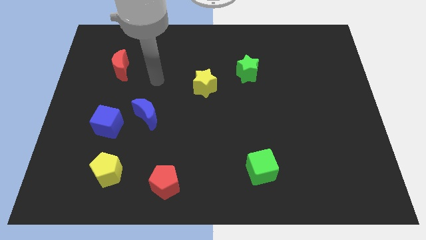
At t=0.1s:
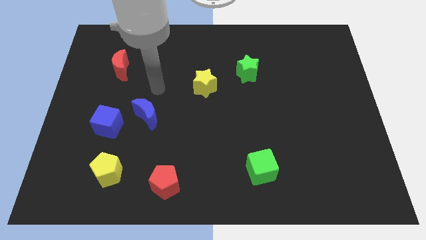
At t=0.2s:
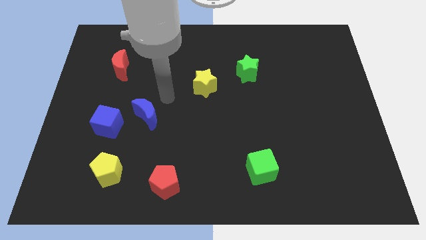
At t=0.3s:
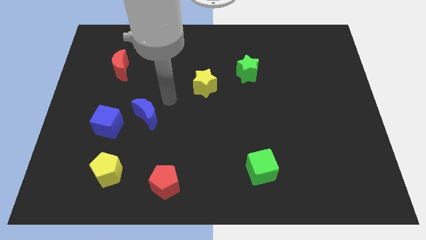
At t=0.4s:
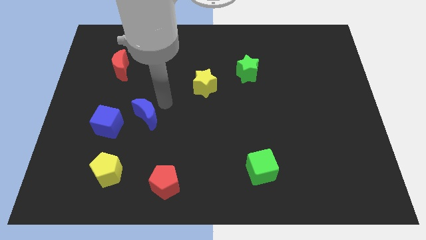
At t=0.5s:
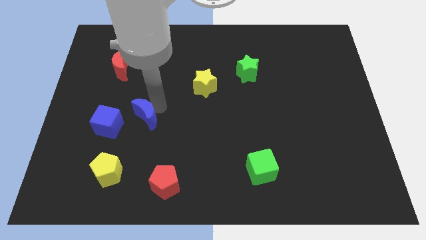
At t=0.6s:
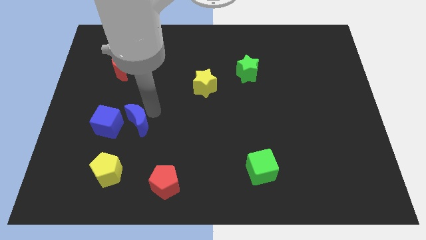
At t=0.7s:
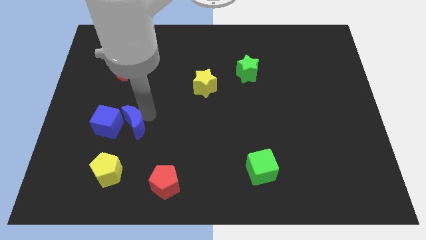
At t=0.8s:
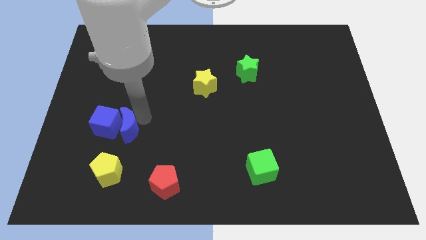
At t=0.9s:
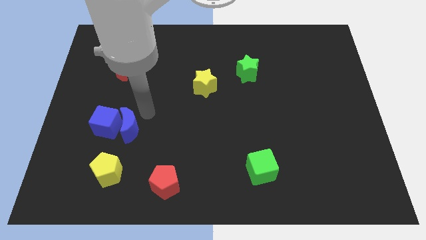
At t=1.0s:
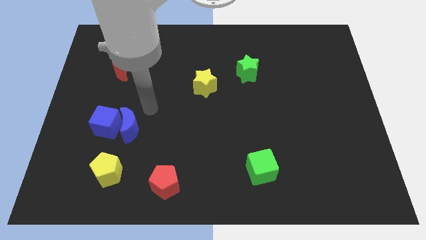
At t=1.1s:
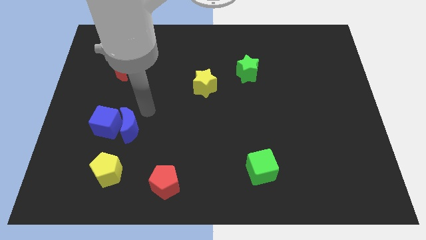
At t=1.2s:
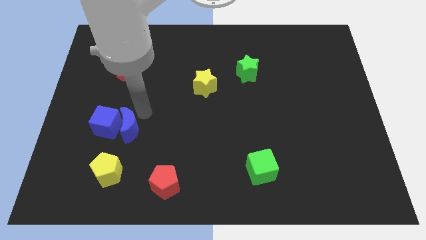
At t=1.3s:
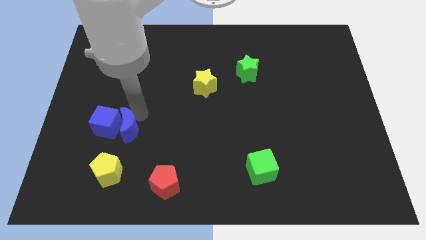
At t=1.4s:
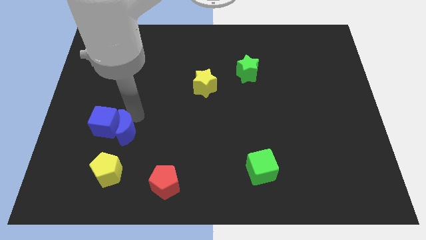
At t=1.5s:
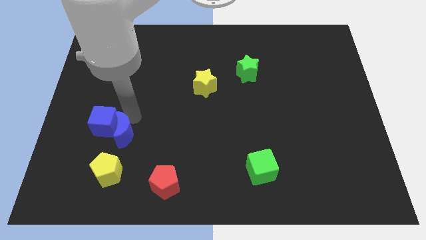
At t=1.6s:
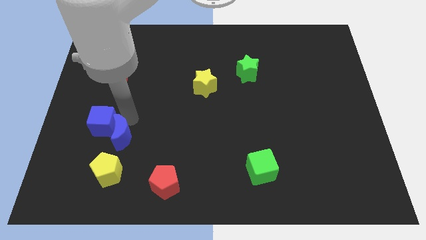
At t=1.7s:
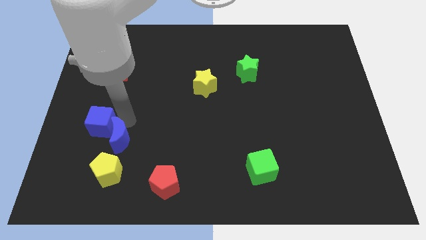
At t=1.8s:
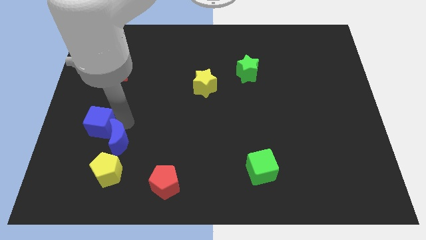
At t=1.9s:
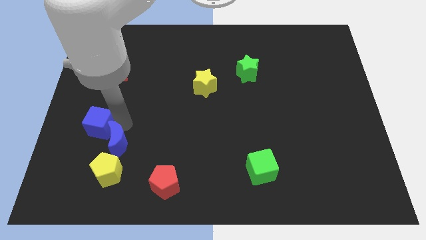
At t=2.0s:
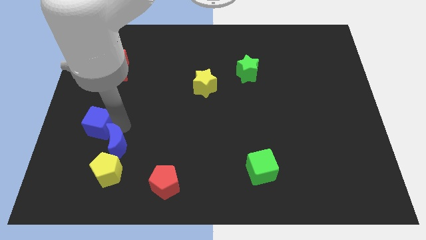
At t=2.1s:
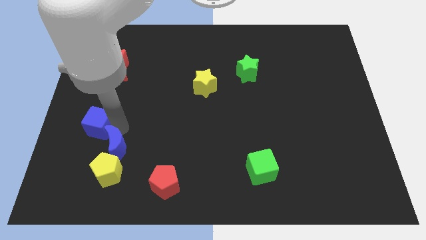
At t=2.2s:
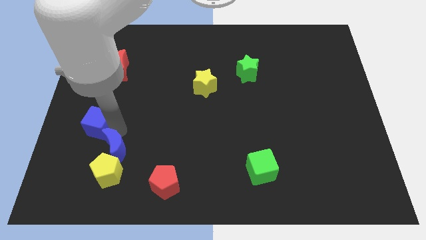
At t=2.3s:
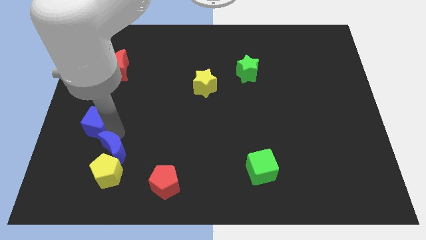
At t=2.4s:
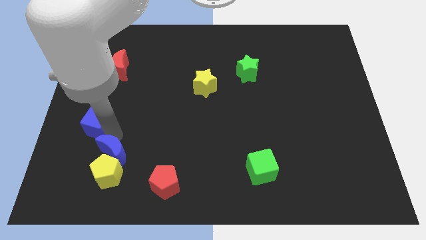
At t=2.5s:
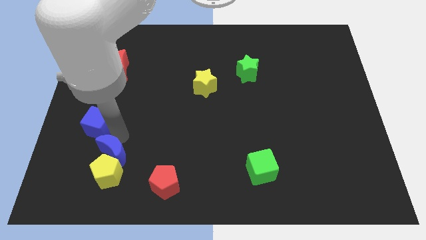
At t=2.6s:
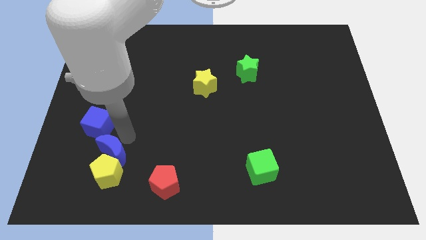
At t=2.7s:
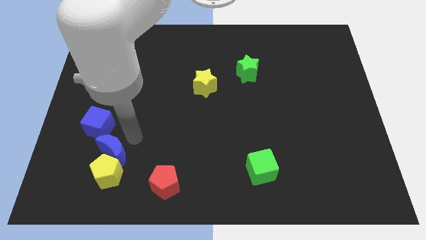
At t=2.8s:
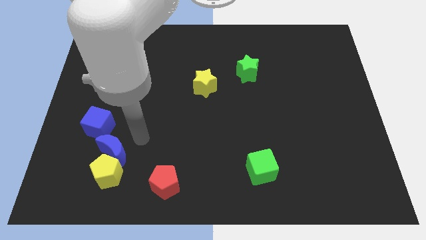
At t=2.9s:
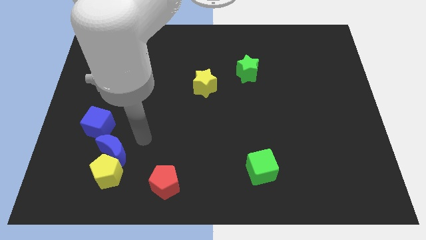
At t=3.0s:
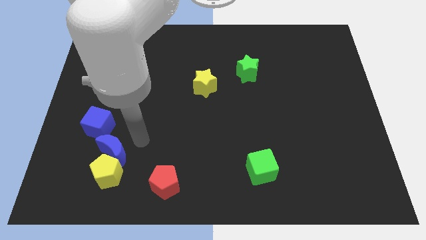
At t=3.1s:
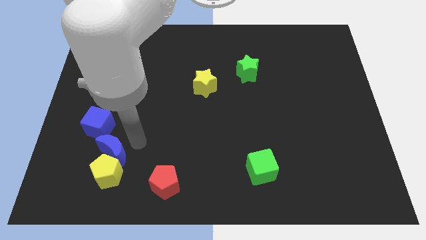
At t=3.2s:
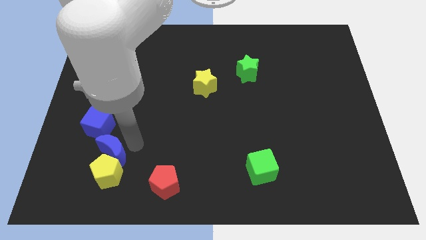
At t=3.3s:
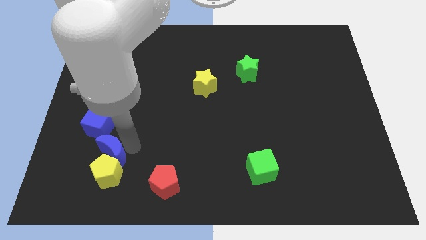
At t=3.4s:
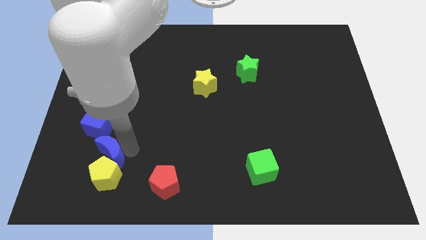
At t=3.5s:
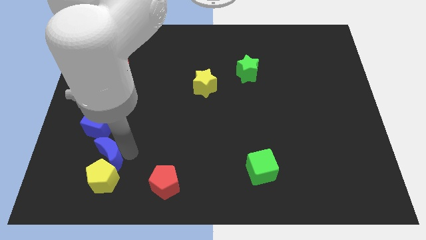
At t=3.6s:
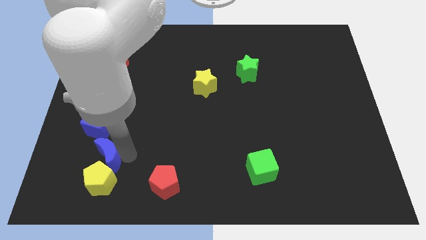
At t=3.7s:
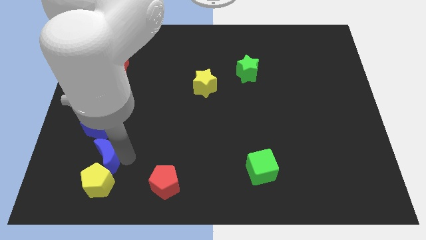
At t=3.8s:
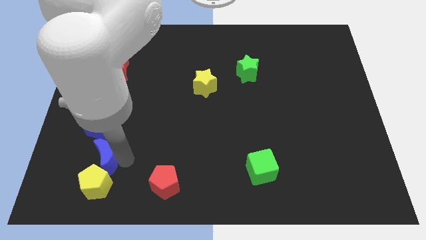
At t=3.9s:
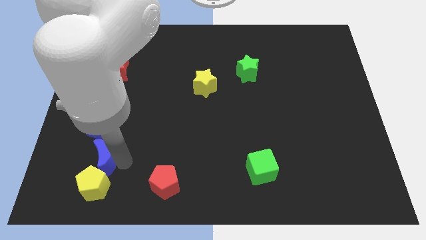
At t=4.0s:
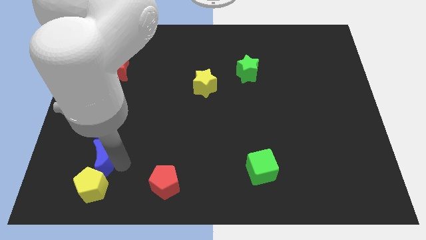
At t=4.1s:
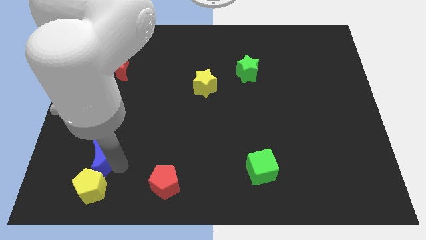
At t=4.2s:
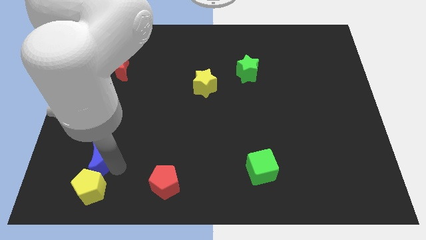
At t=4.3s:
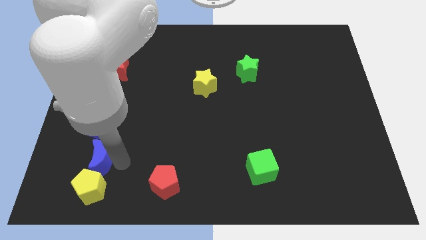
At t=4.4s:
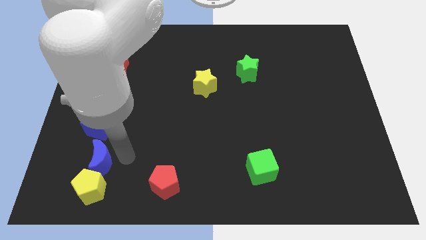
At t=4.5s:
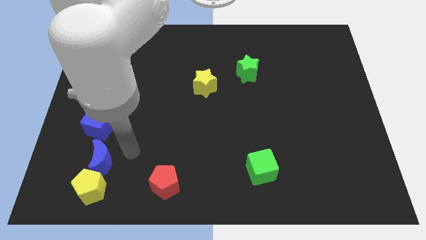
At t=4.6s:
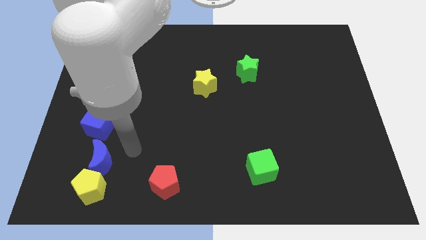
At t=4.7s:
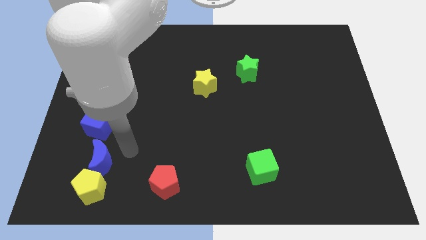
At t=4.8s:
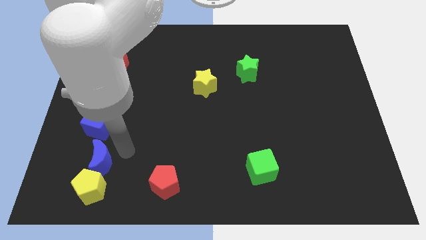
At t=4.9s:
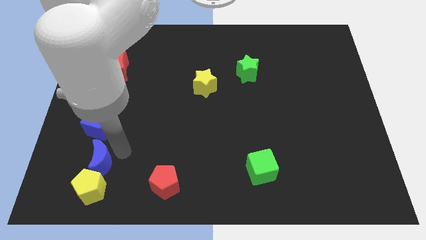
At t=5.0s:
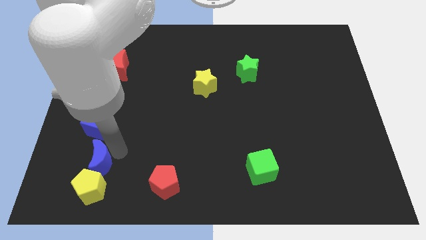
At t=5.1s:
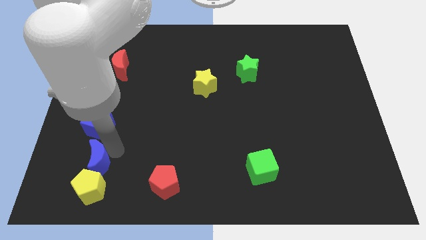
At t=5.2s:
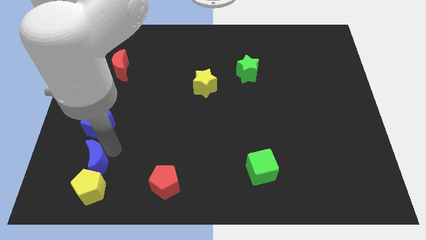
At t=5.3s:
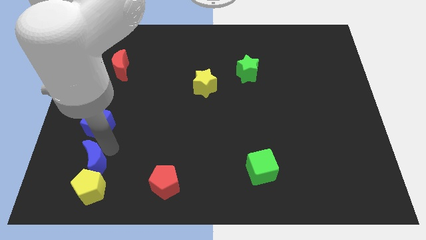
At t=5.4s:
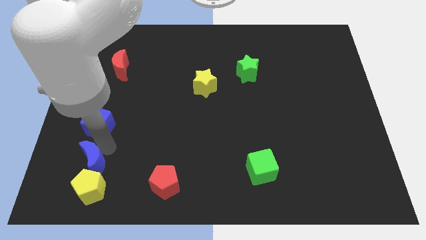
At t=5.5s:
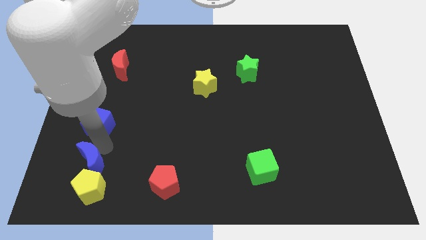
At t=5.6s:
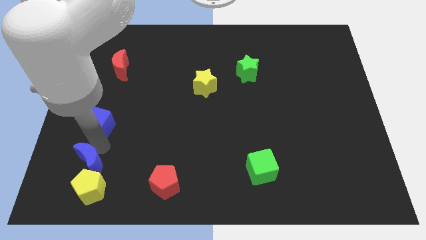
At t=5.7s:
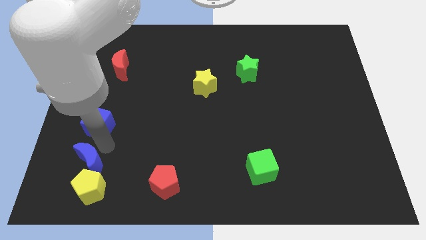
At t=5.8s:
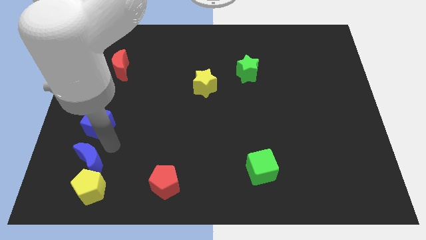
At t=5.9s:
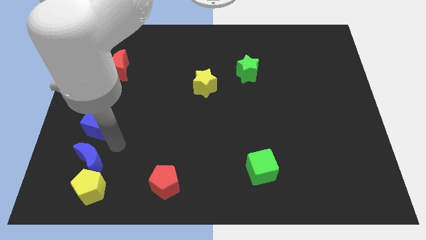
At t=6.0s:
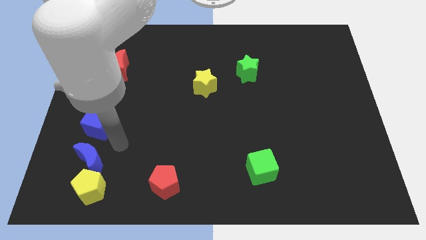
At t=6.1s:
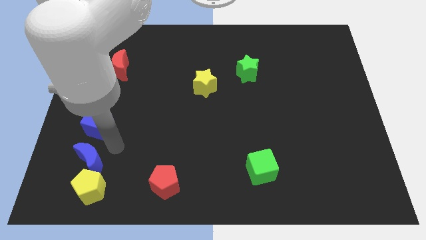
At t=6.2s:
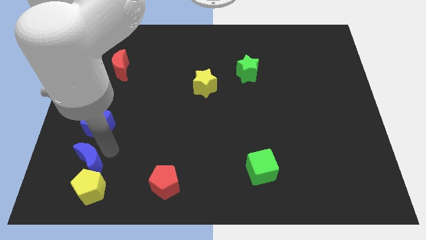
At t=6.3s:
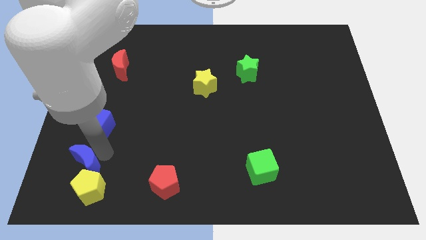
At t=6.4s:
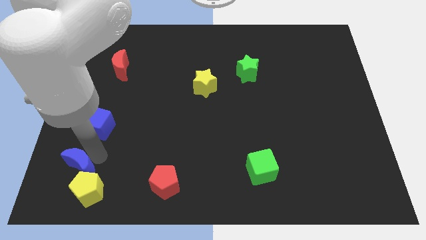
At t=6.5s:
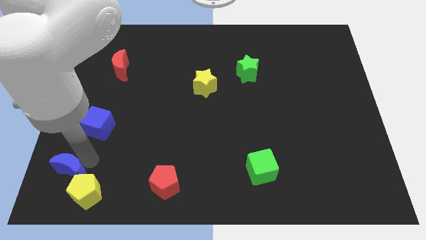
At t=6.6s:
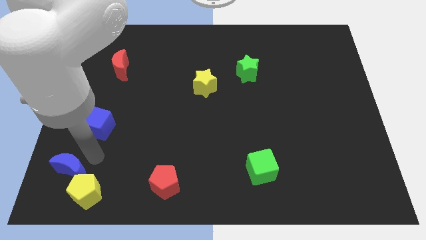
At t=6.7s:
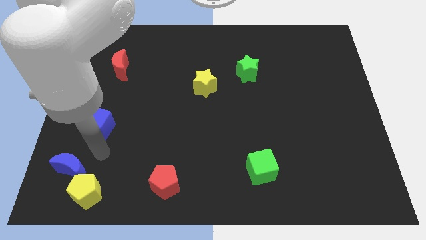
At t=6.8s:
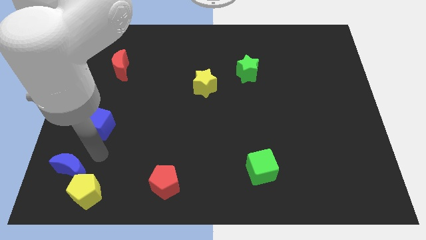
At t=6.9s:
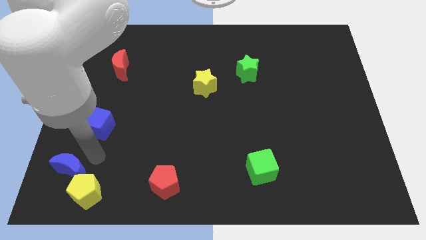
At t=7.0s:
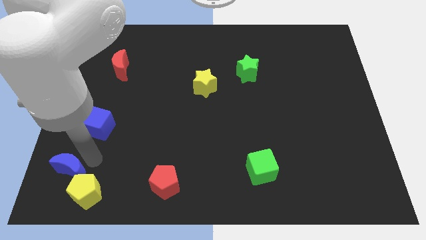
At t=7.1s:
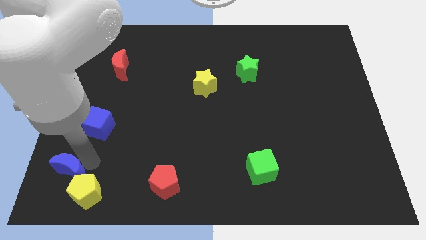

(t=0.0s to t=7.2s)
put the blue moon to the lower left corner
